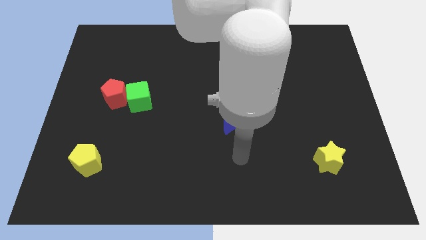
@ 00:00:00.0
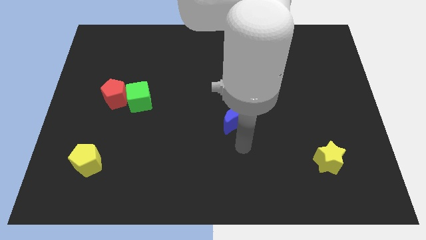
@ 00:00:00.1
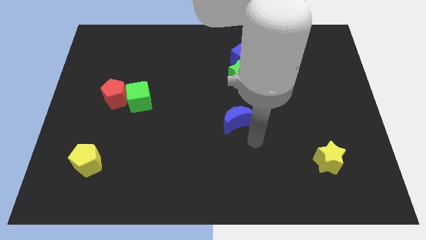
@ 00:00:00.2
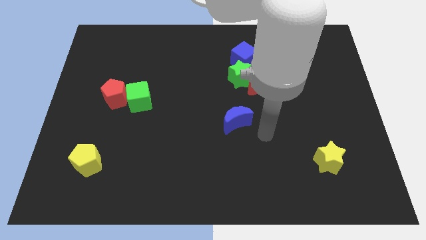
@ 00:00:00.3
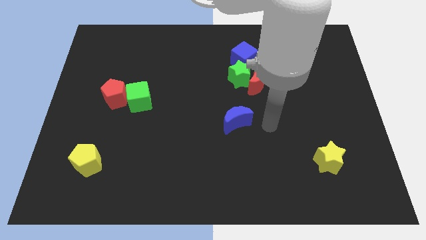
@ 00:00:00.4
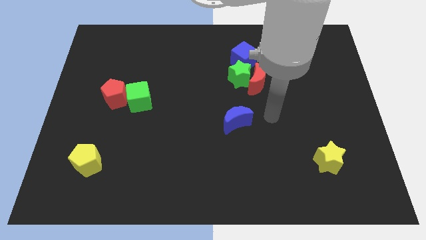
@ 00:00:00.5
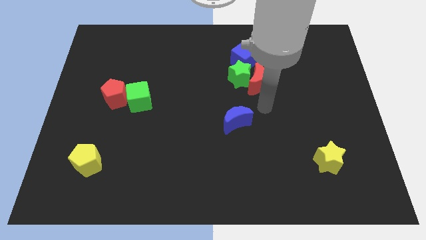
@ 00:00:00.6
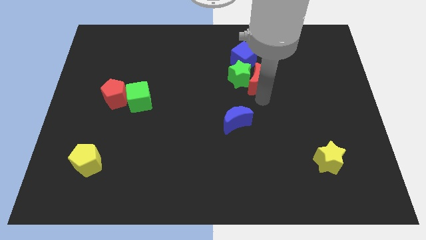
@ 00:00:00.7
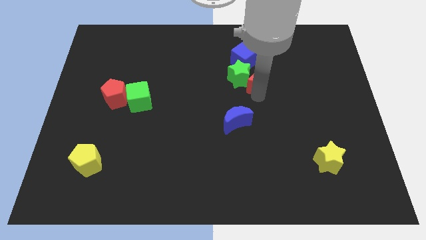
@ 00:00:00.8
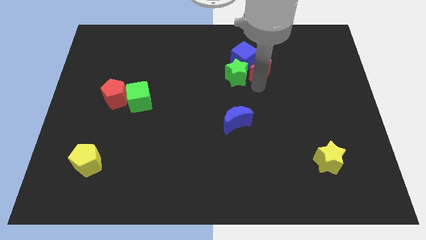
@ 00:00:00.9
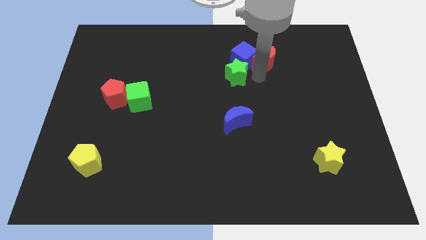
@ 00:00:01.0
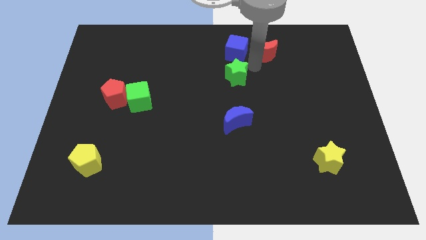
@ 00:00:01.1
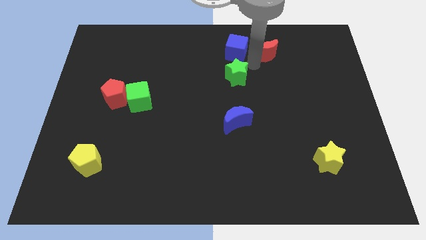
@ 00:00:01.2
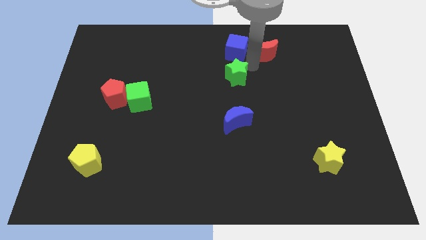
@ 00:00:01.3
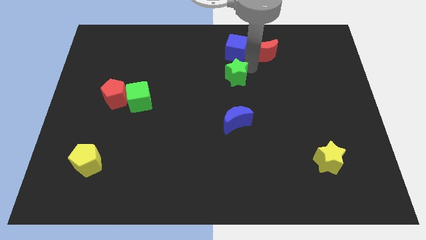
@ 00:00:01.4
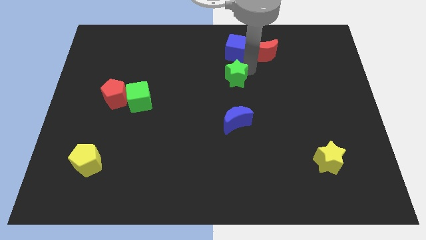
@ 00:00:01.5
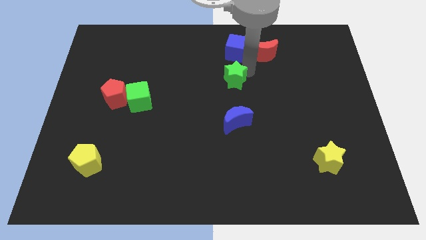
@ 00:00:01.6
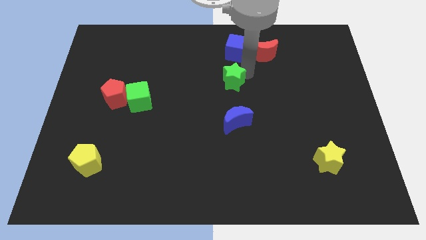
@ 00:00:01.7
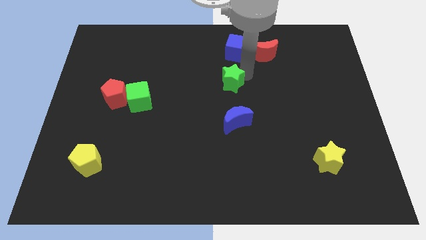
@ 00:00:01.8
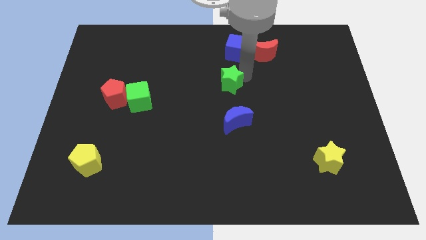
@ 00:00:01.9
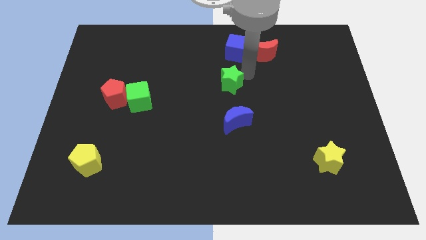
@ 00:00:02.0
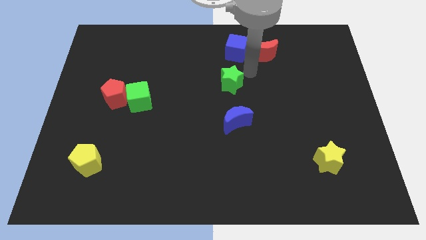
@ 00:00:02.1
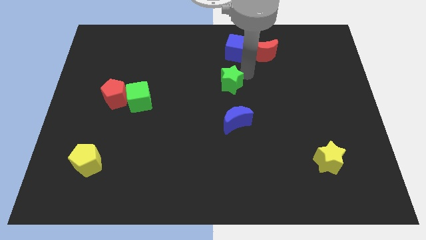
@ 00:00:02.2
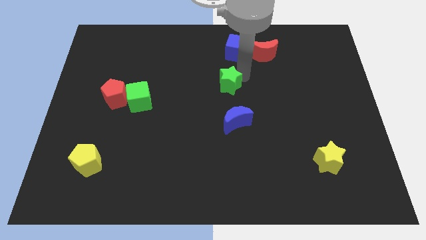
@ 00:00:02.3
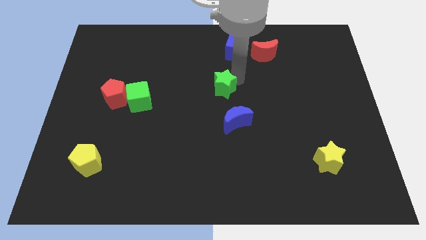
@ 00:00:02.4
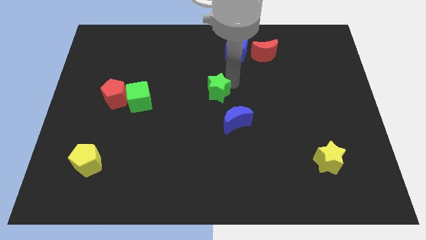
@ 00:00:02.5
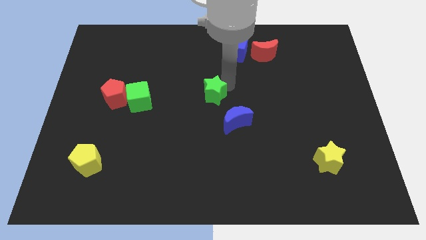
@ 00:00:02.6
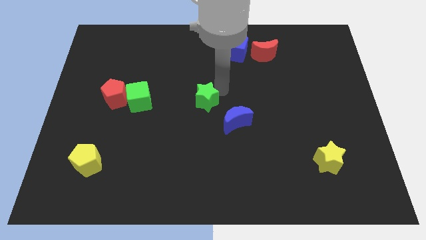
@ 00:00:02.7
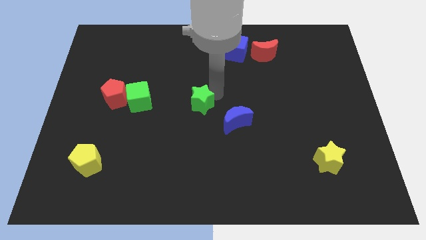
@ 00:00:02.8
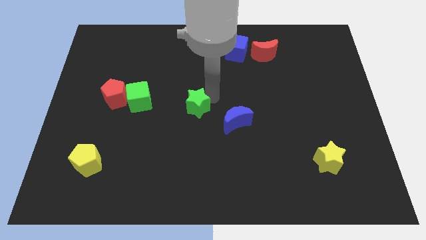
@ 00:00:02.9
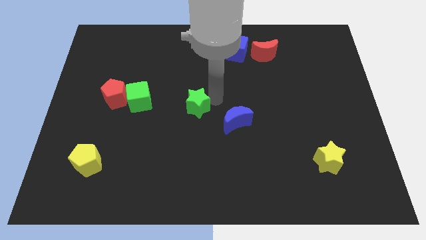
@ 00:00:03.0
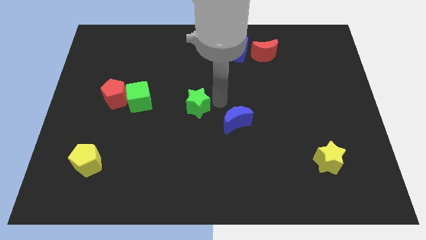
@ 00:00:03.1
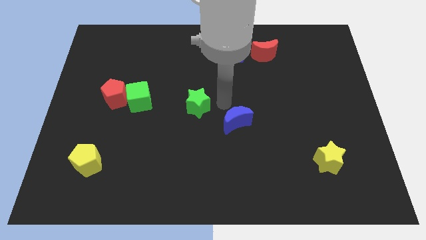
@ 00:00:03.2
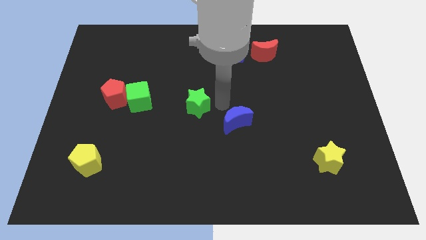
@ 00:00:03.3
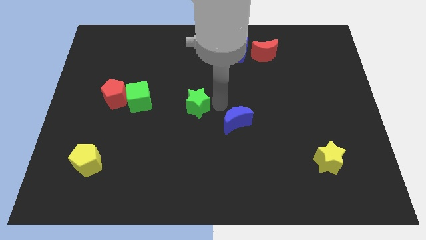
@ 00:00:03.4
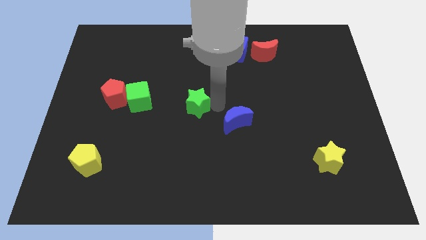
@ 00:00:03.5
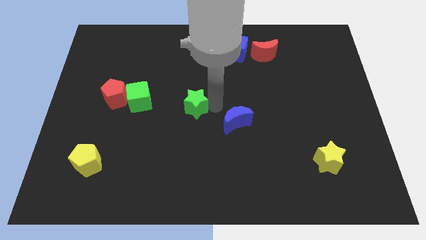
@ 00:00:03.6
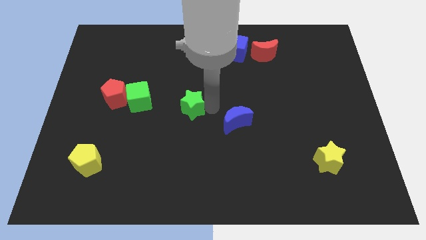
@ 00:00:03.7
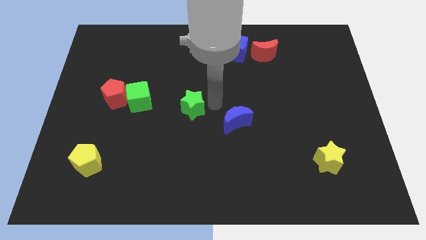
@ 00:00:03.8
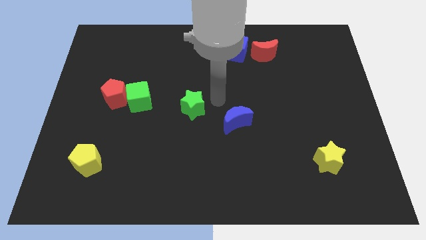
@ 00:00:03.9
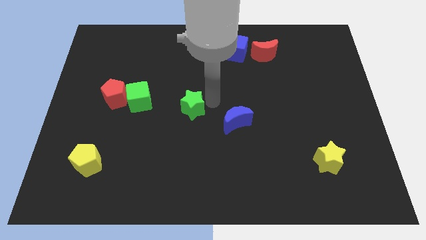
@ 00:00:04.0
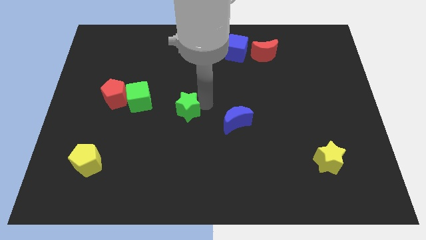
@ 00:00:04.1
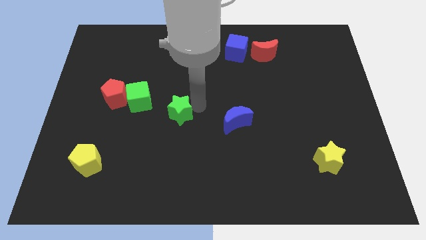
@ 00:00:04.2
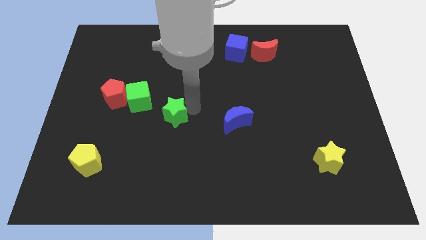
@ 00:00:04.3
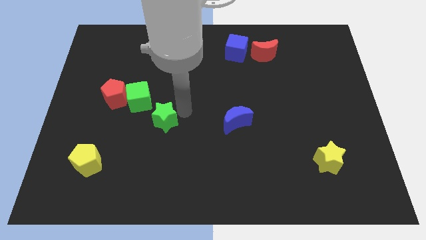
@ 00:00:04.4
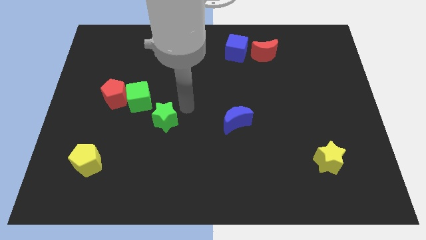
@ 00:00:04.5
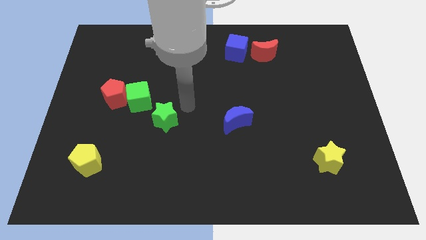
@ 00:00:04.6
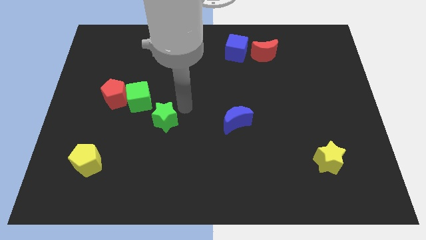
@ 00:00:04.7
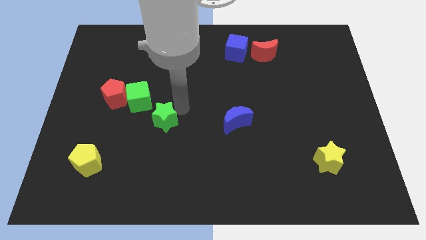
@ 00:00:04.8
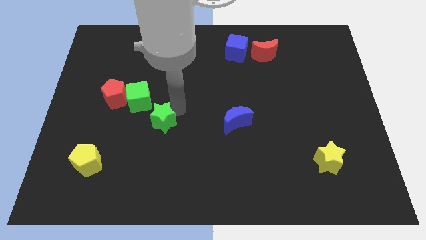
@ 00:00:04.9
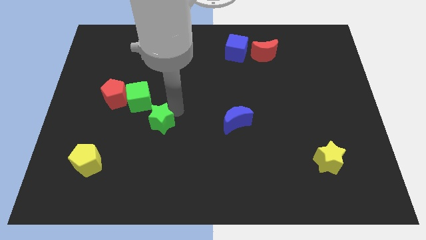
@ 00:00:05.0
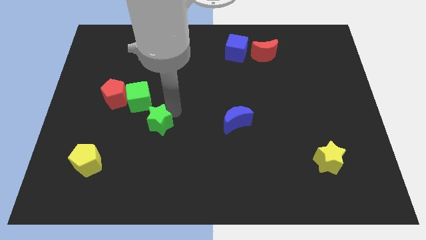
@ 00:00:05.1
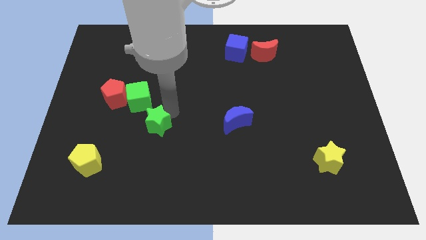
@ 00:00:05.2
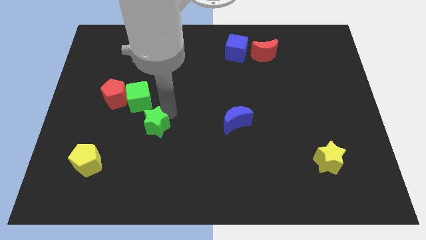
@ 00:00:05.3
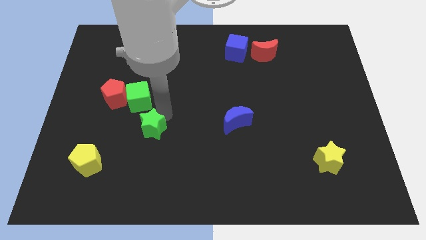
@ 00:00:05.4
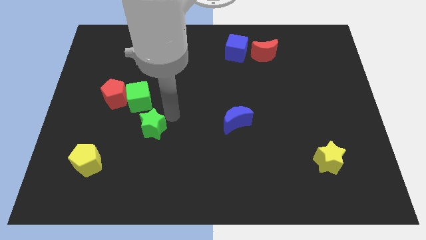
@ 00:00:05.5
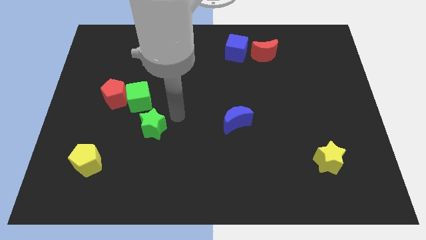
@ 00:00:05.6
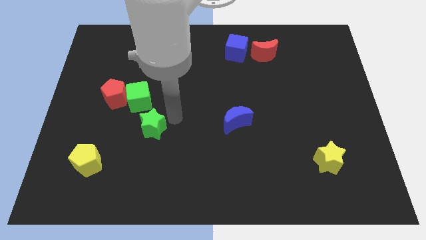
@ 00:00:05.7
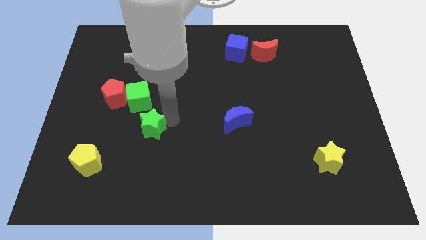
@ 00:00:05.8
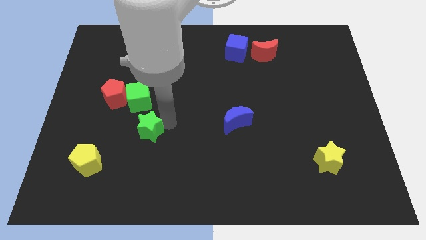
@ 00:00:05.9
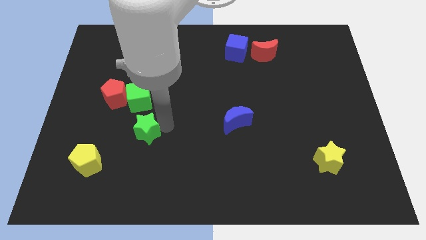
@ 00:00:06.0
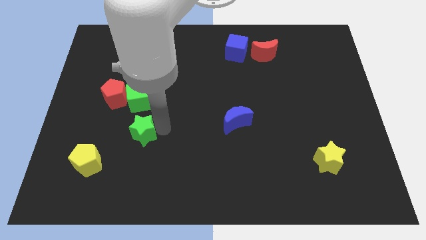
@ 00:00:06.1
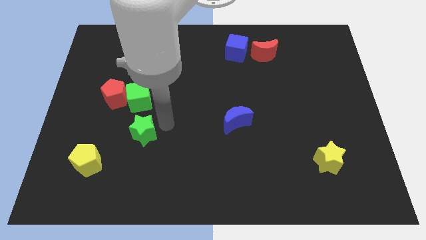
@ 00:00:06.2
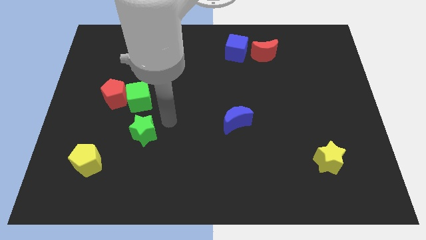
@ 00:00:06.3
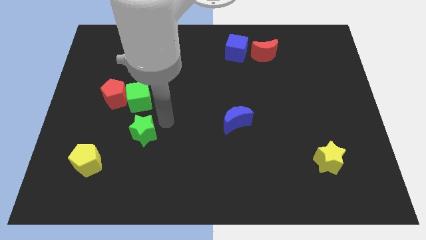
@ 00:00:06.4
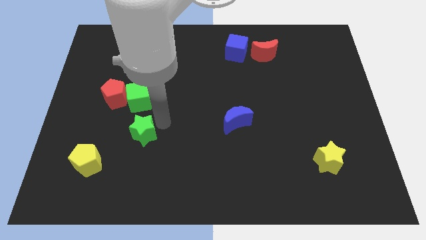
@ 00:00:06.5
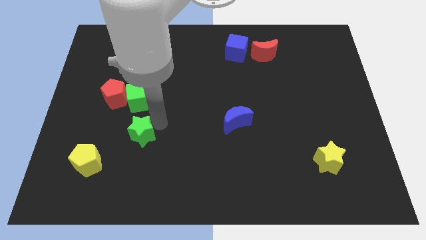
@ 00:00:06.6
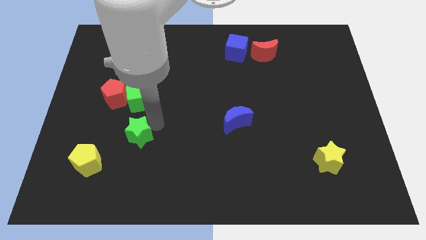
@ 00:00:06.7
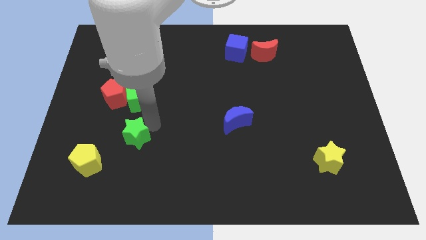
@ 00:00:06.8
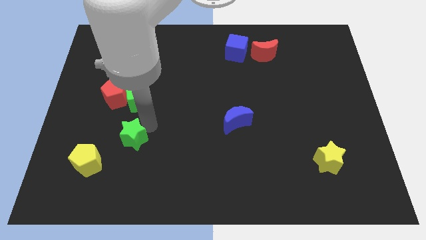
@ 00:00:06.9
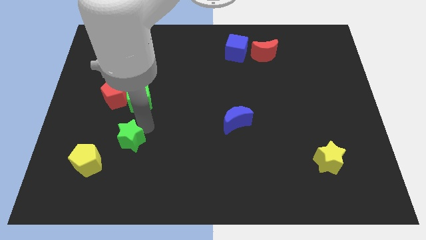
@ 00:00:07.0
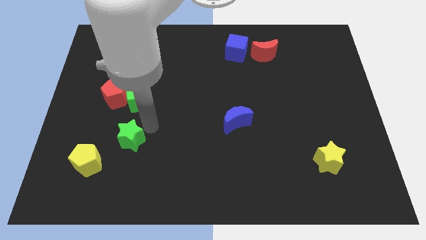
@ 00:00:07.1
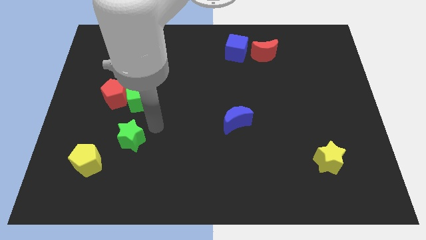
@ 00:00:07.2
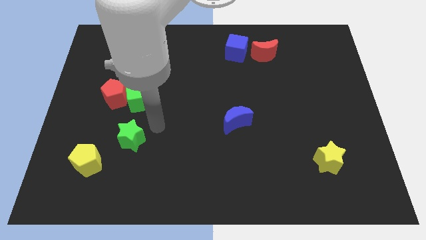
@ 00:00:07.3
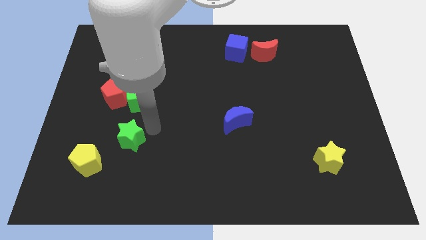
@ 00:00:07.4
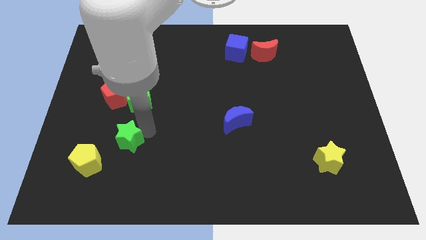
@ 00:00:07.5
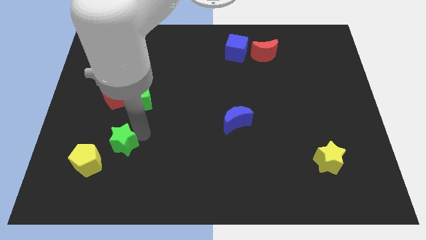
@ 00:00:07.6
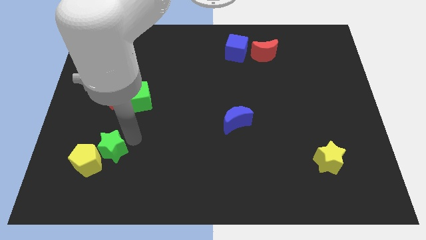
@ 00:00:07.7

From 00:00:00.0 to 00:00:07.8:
move the green star towards the yellow pentagon
